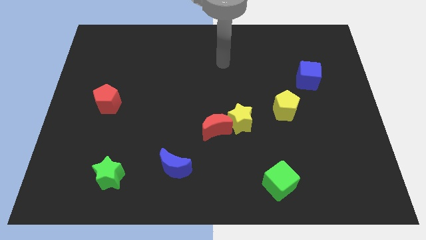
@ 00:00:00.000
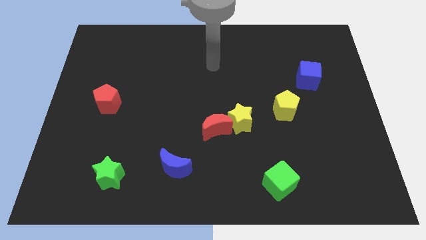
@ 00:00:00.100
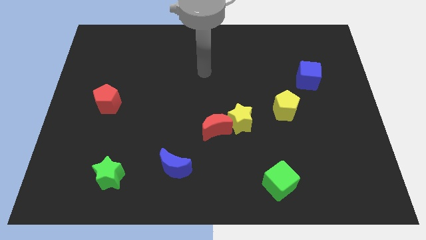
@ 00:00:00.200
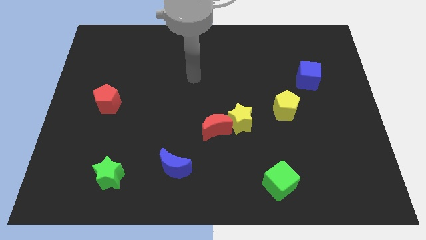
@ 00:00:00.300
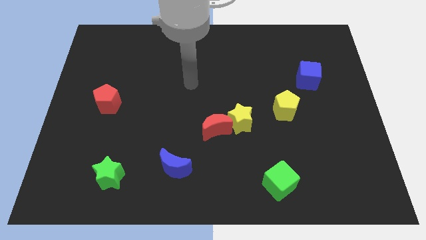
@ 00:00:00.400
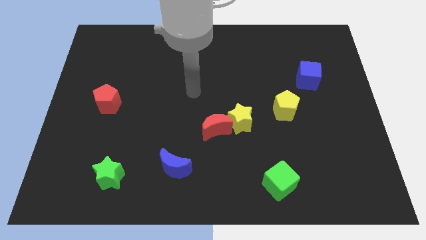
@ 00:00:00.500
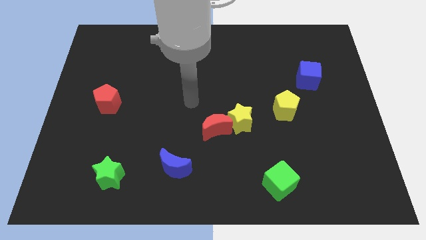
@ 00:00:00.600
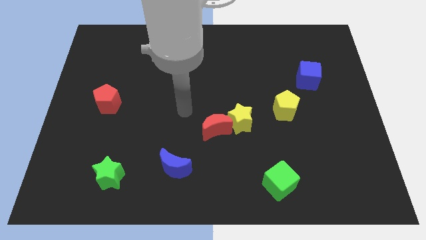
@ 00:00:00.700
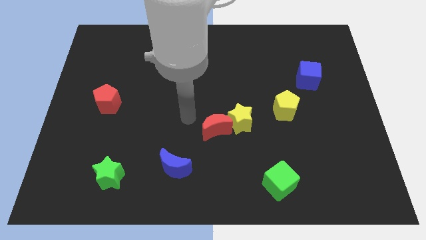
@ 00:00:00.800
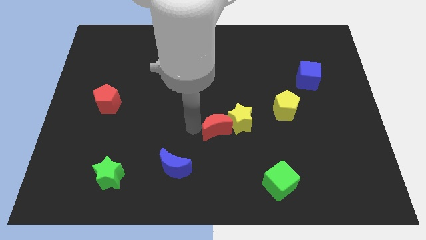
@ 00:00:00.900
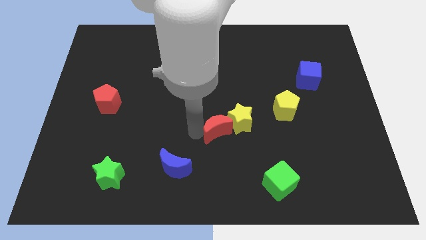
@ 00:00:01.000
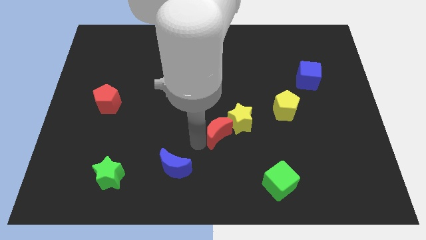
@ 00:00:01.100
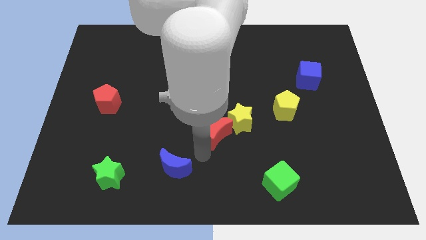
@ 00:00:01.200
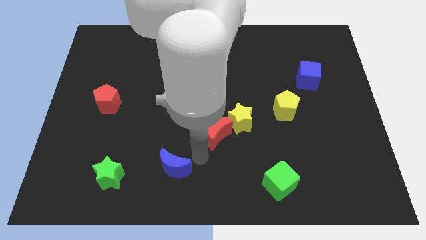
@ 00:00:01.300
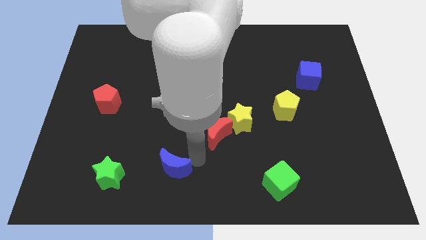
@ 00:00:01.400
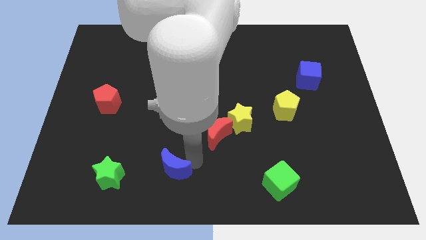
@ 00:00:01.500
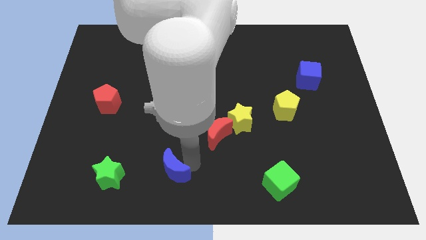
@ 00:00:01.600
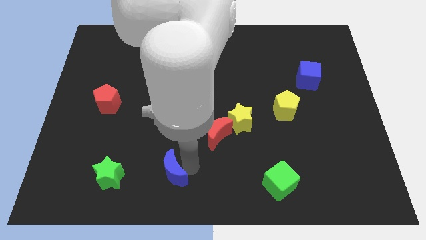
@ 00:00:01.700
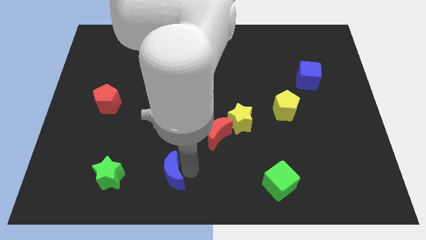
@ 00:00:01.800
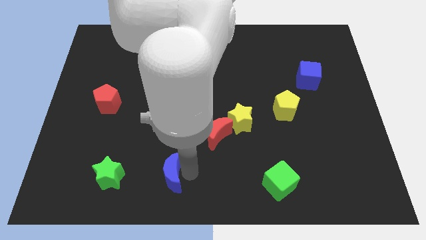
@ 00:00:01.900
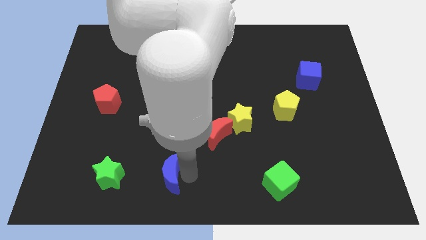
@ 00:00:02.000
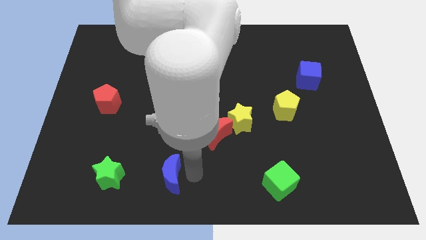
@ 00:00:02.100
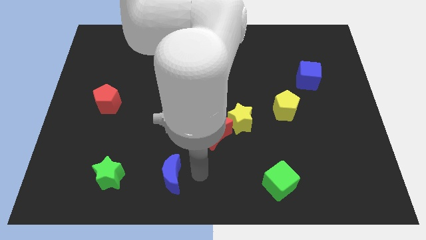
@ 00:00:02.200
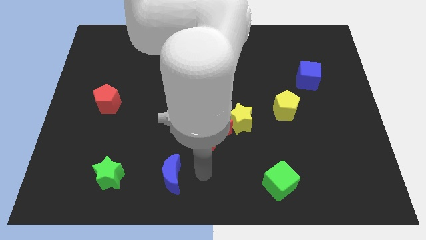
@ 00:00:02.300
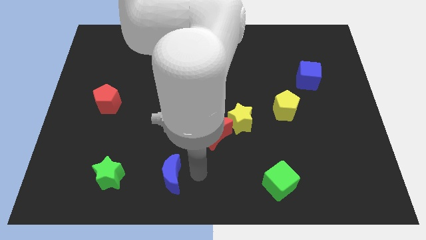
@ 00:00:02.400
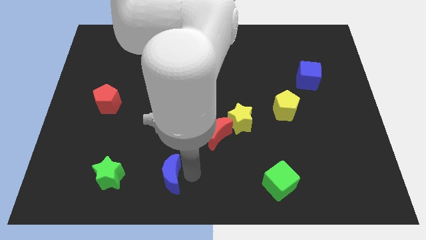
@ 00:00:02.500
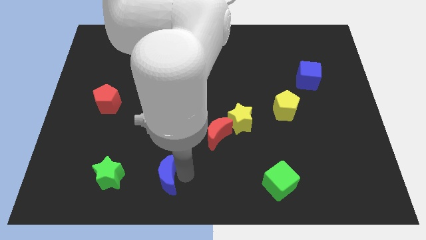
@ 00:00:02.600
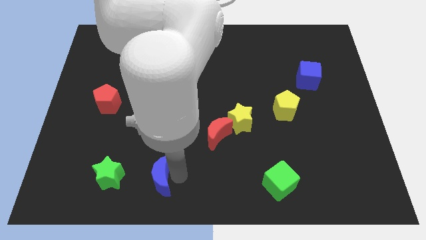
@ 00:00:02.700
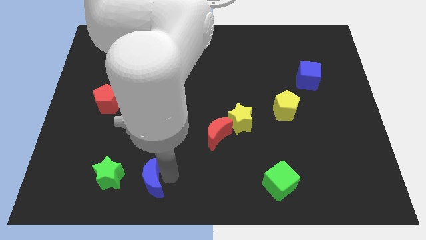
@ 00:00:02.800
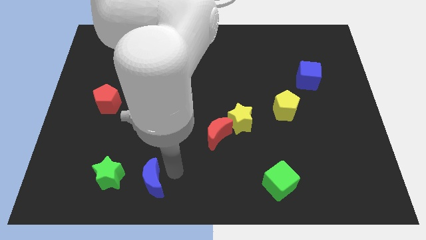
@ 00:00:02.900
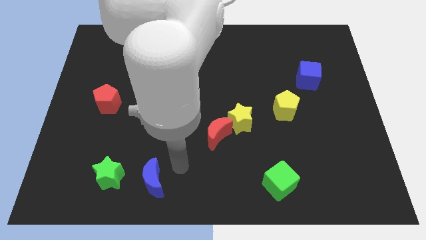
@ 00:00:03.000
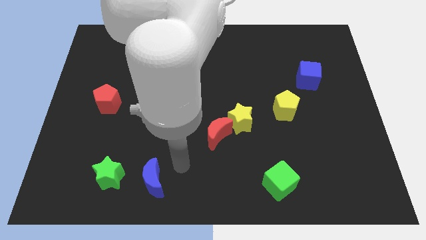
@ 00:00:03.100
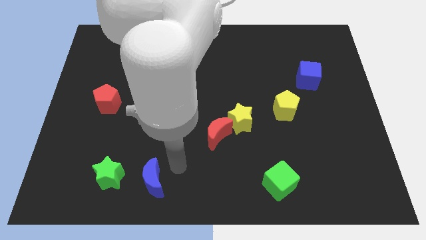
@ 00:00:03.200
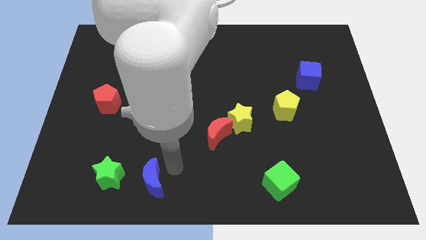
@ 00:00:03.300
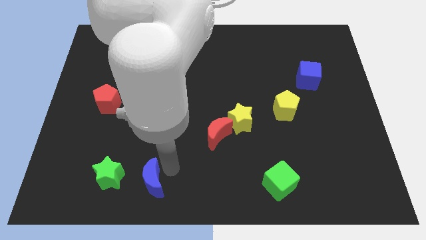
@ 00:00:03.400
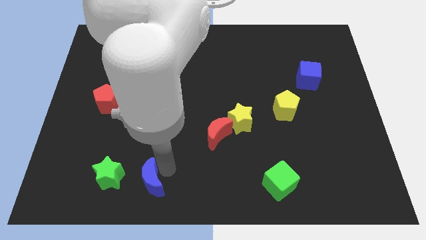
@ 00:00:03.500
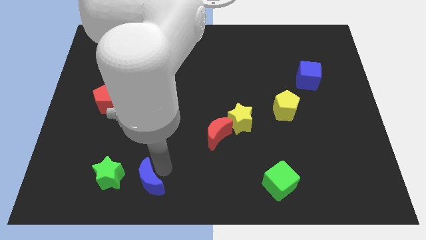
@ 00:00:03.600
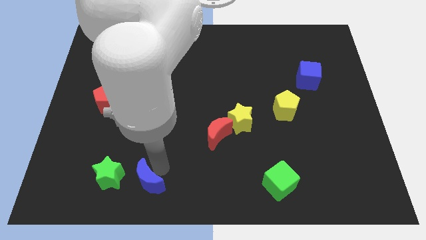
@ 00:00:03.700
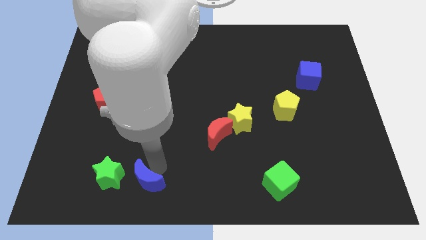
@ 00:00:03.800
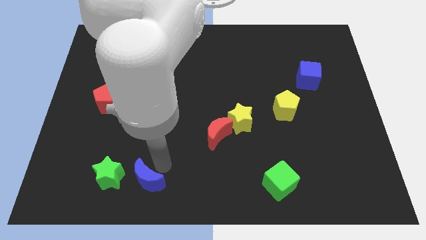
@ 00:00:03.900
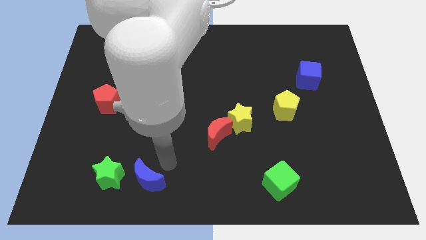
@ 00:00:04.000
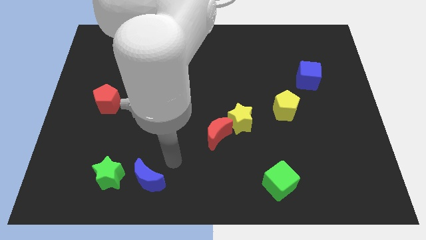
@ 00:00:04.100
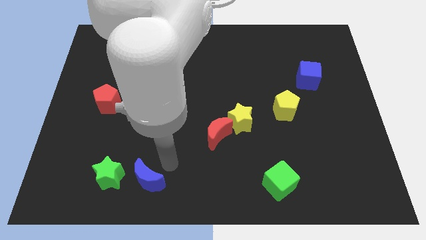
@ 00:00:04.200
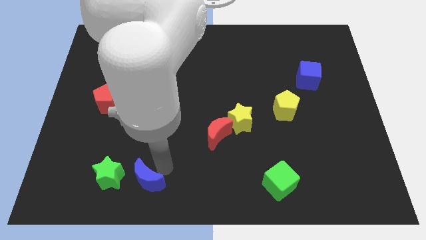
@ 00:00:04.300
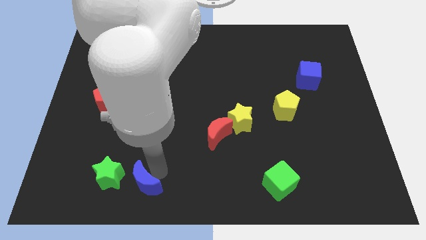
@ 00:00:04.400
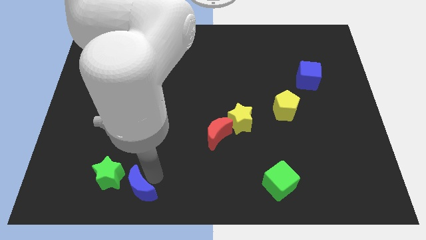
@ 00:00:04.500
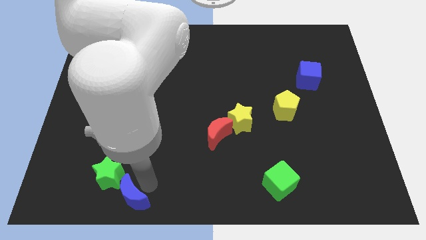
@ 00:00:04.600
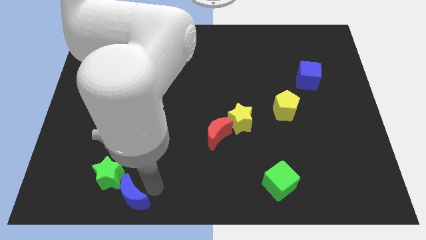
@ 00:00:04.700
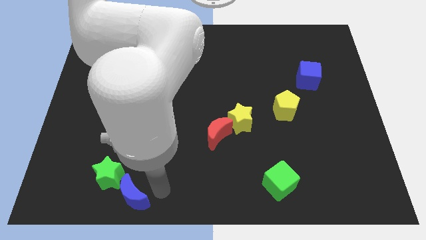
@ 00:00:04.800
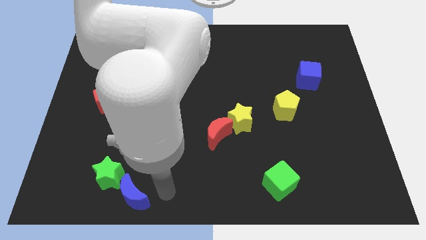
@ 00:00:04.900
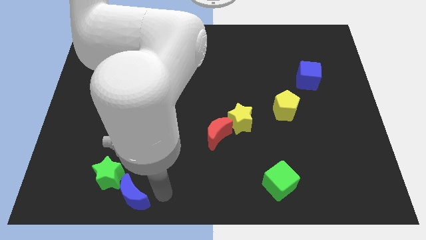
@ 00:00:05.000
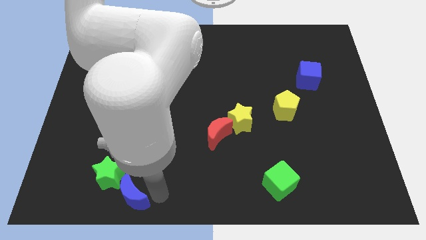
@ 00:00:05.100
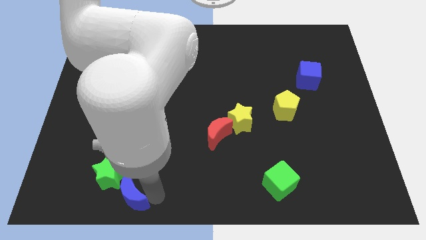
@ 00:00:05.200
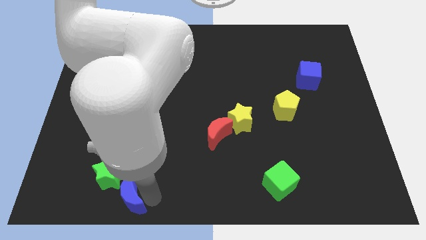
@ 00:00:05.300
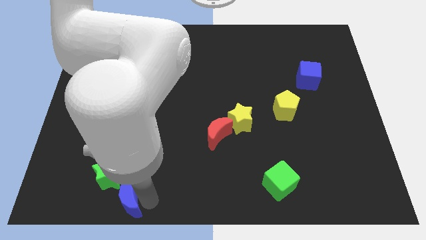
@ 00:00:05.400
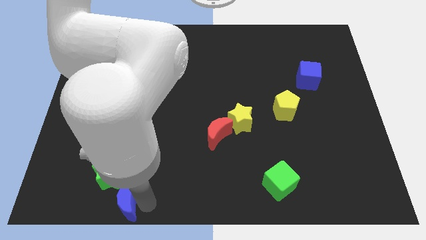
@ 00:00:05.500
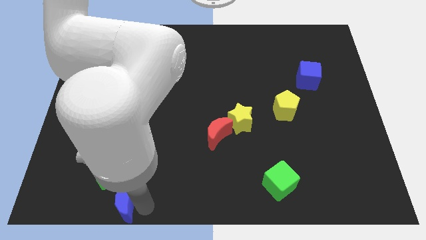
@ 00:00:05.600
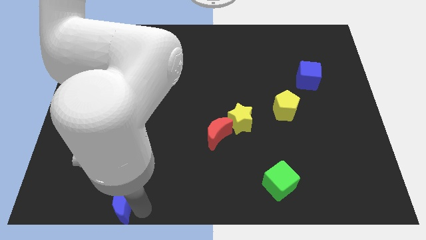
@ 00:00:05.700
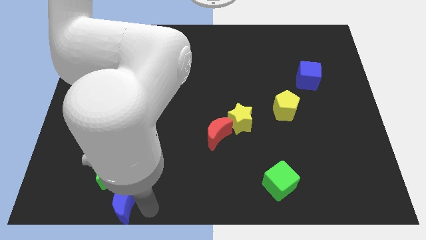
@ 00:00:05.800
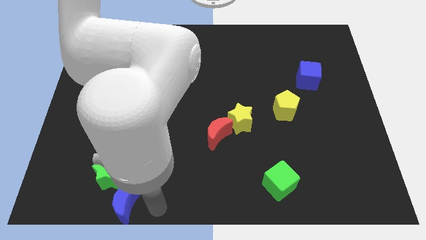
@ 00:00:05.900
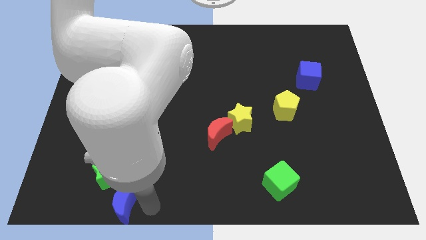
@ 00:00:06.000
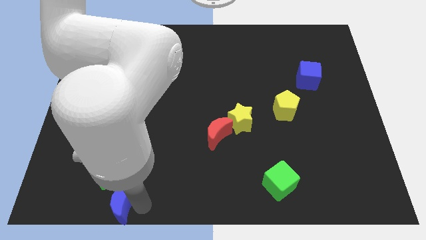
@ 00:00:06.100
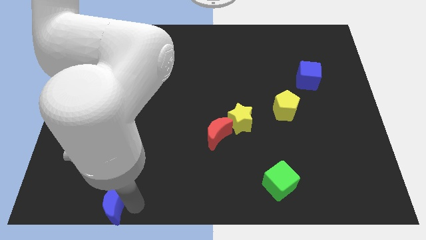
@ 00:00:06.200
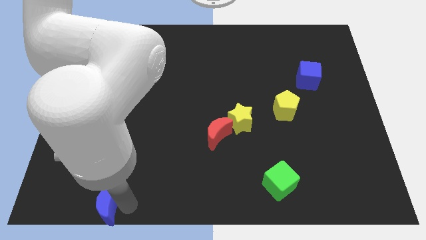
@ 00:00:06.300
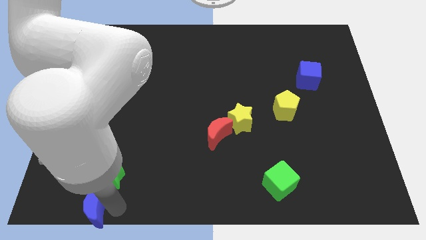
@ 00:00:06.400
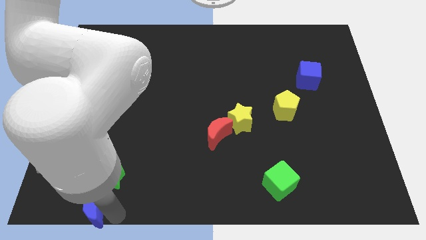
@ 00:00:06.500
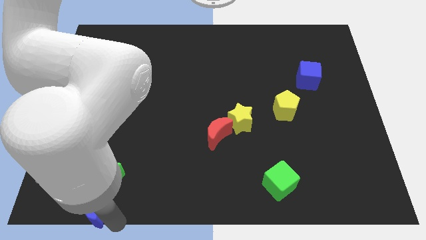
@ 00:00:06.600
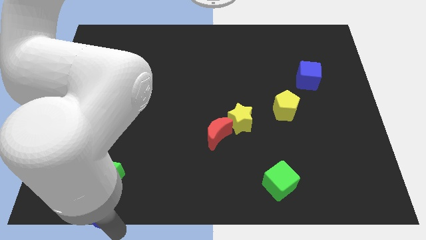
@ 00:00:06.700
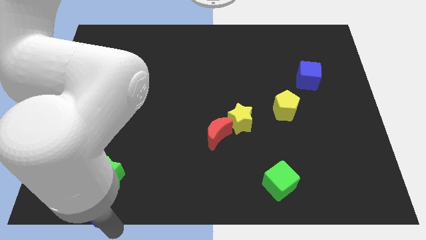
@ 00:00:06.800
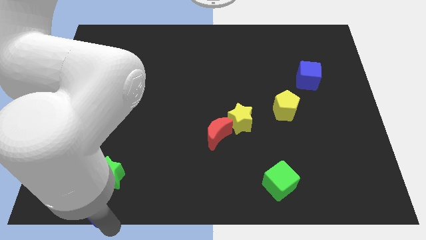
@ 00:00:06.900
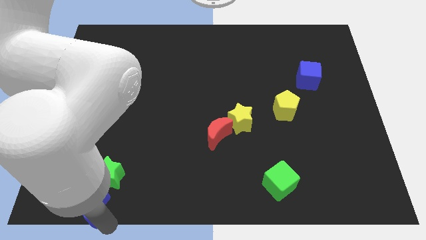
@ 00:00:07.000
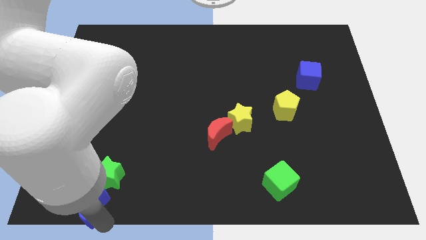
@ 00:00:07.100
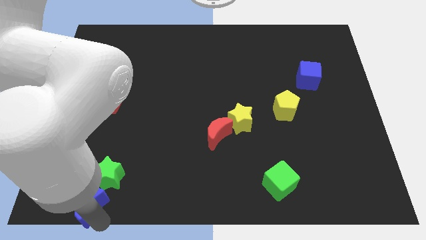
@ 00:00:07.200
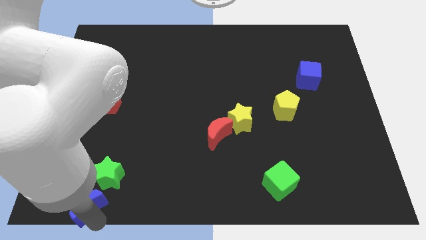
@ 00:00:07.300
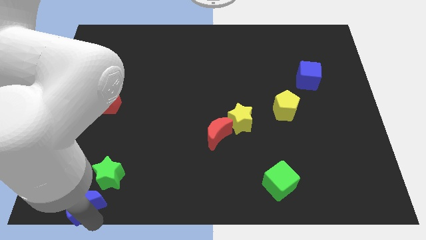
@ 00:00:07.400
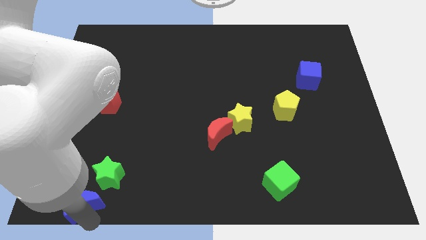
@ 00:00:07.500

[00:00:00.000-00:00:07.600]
push the blue moon to the bottom left
